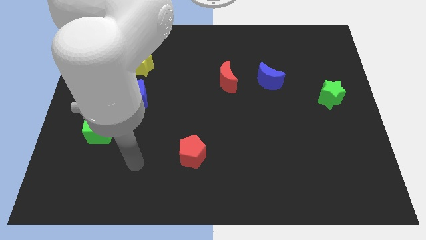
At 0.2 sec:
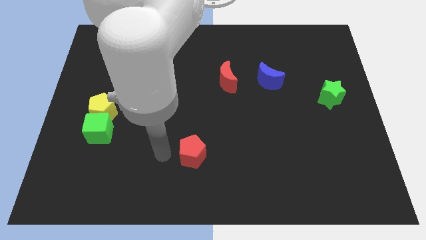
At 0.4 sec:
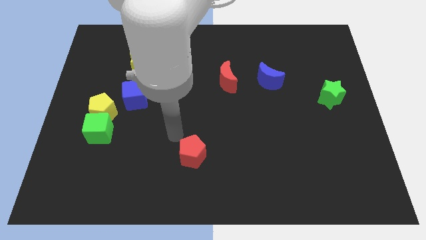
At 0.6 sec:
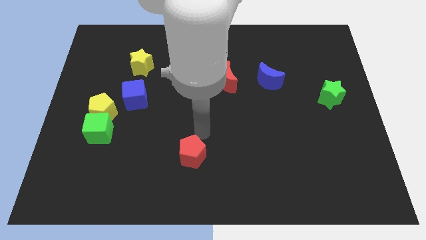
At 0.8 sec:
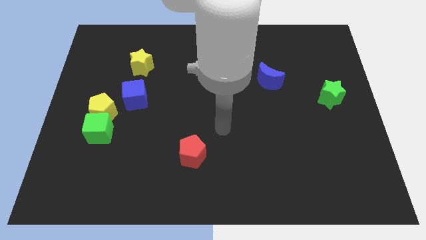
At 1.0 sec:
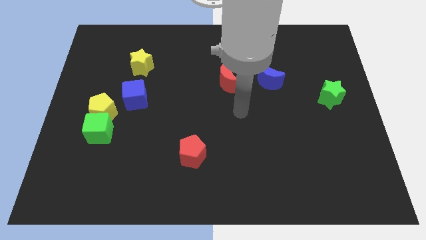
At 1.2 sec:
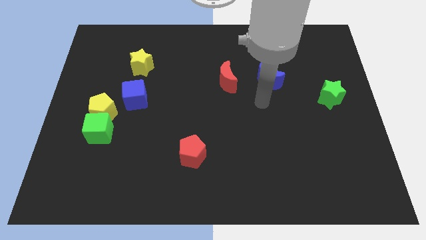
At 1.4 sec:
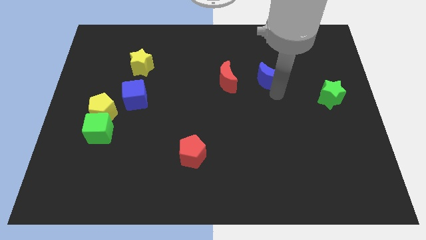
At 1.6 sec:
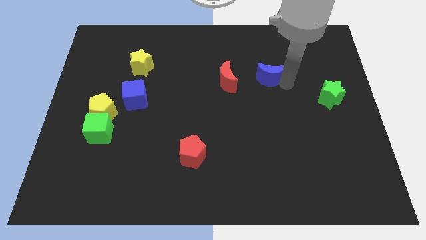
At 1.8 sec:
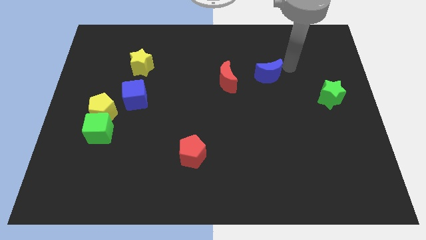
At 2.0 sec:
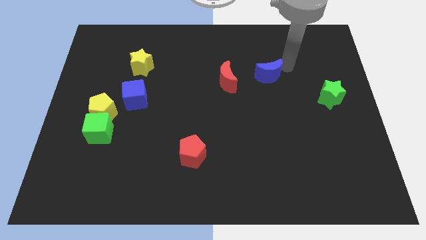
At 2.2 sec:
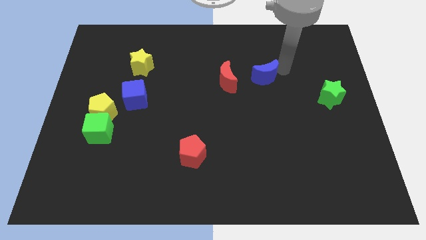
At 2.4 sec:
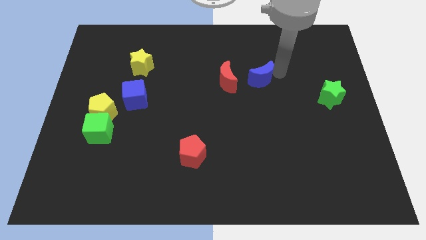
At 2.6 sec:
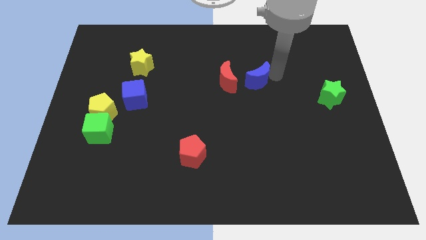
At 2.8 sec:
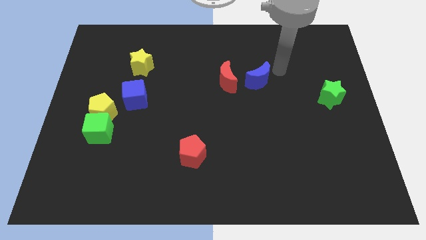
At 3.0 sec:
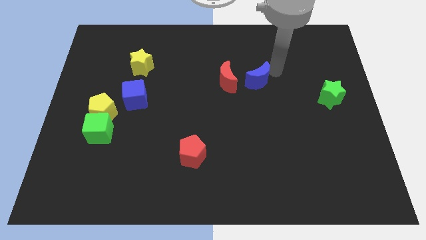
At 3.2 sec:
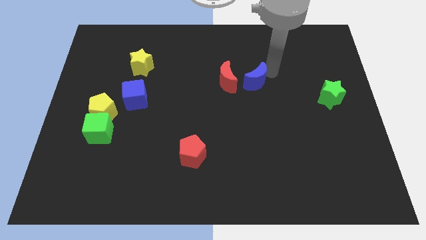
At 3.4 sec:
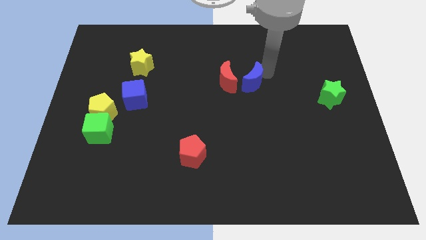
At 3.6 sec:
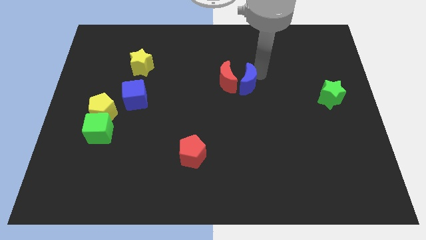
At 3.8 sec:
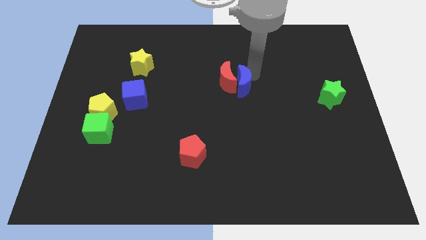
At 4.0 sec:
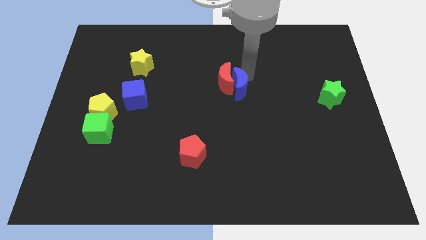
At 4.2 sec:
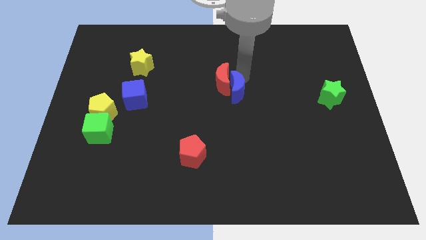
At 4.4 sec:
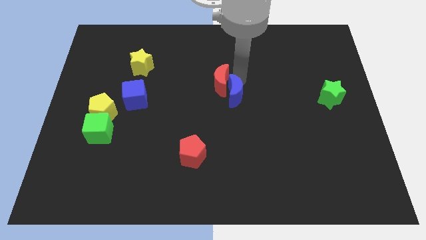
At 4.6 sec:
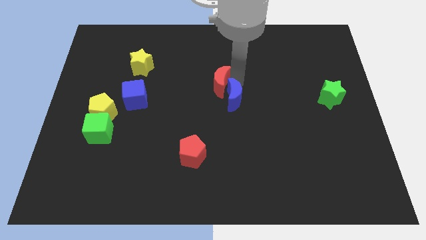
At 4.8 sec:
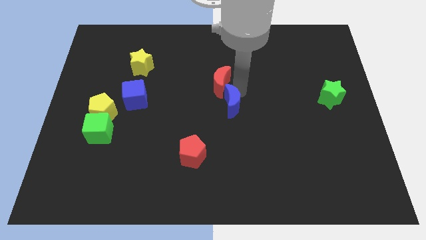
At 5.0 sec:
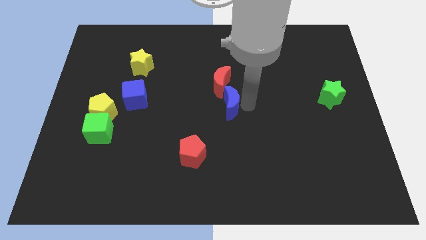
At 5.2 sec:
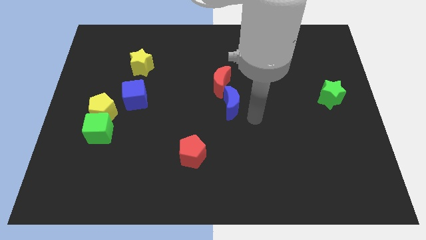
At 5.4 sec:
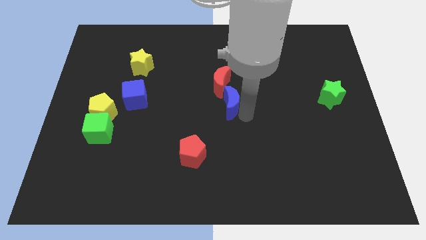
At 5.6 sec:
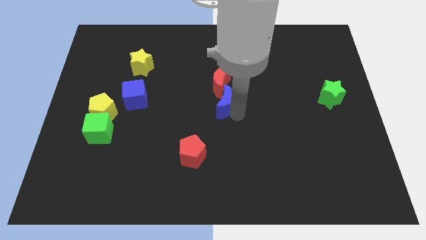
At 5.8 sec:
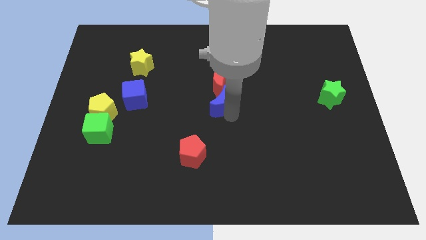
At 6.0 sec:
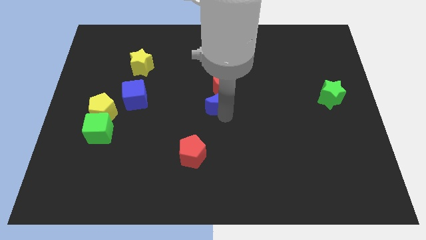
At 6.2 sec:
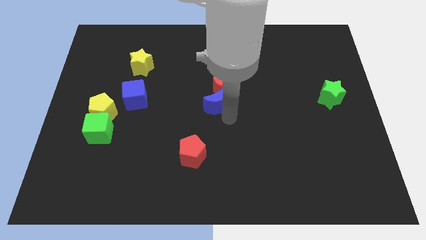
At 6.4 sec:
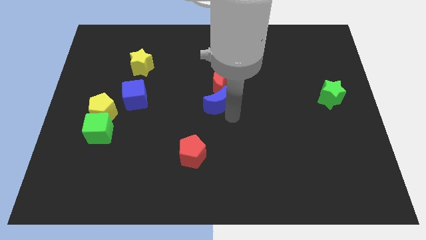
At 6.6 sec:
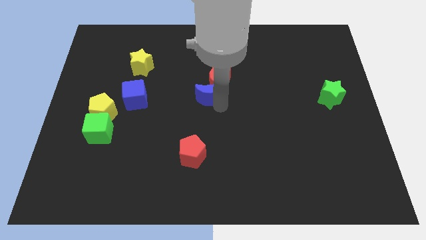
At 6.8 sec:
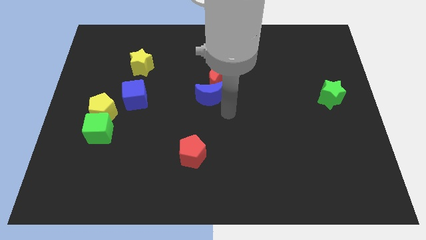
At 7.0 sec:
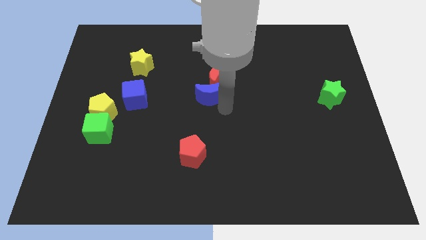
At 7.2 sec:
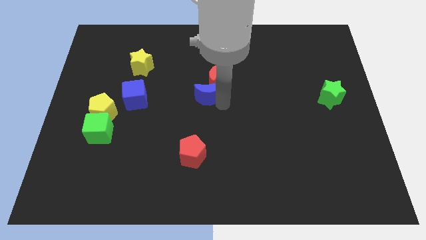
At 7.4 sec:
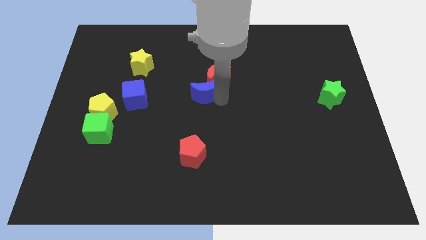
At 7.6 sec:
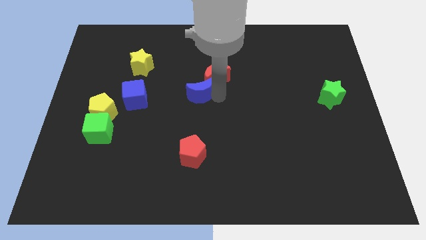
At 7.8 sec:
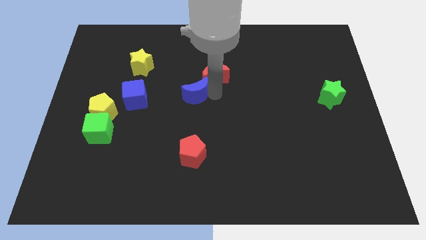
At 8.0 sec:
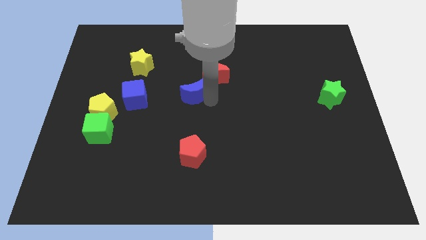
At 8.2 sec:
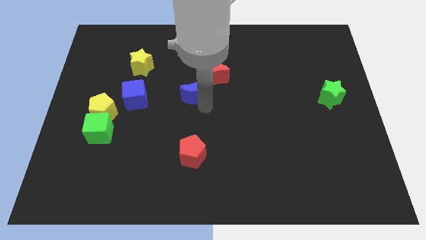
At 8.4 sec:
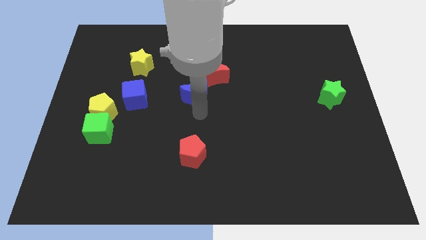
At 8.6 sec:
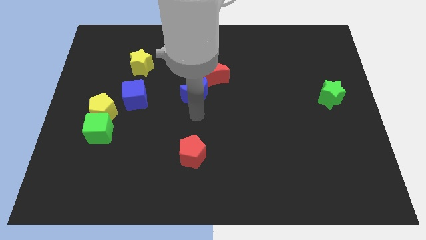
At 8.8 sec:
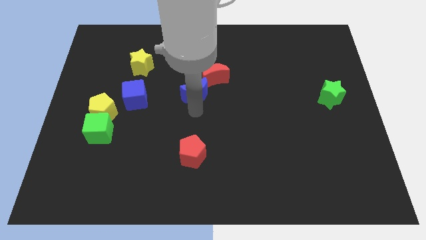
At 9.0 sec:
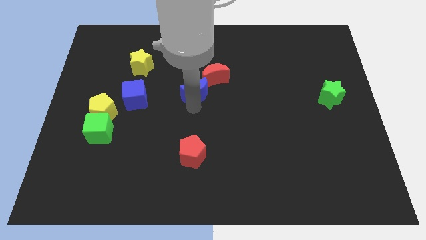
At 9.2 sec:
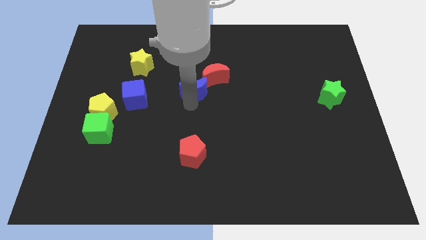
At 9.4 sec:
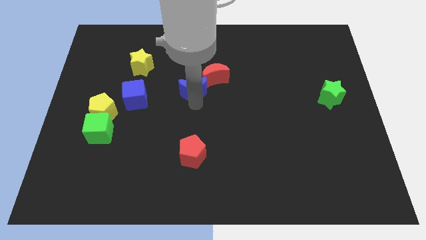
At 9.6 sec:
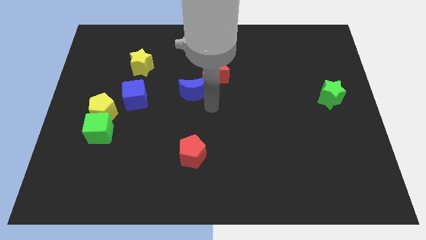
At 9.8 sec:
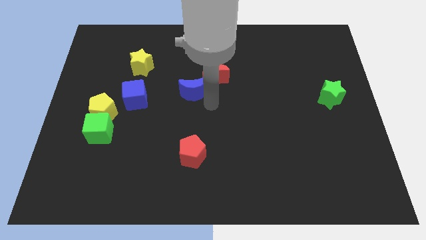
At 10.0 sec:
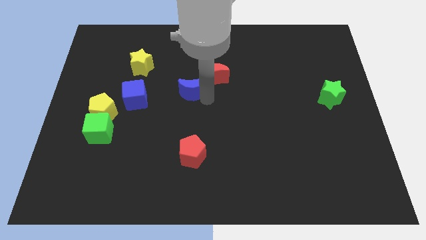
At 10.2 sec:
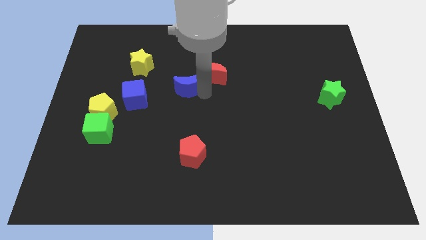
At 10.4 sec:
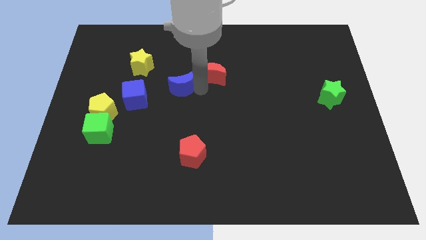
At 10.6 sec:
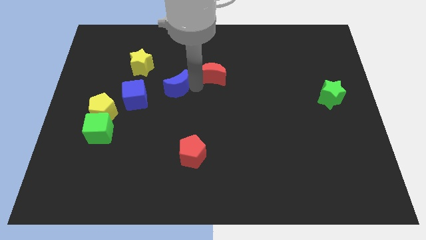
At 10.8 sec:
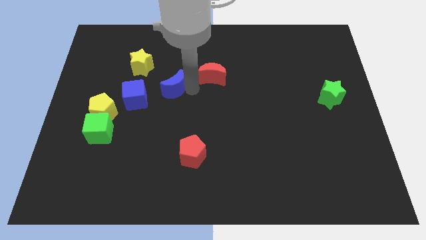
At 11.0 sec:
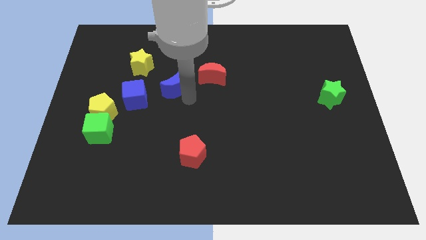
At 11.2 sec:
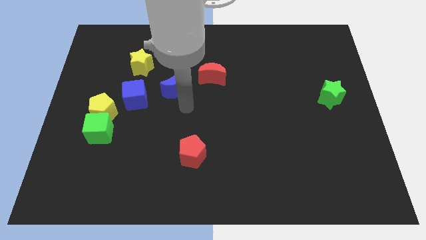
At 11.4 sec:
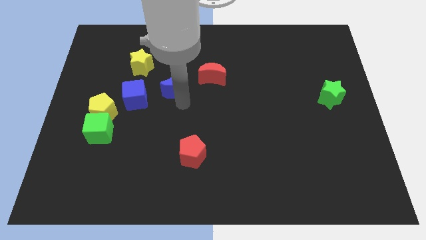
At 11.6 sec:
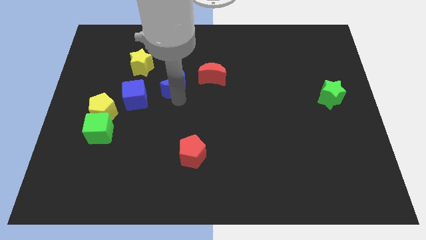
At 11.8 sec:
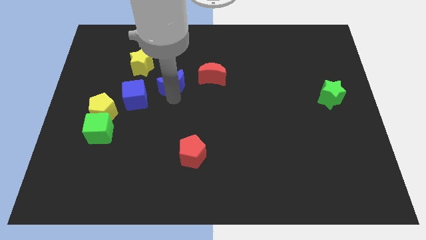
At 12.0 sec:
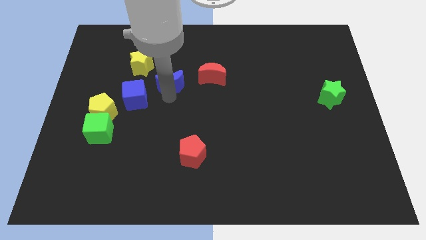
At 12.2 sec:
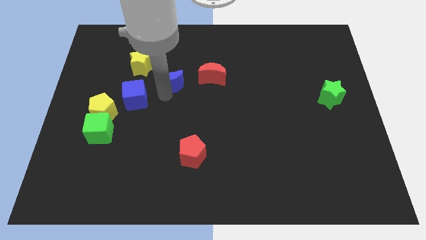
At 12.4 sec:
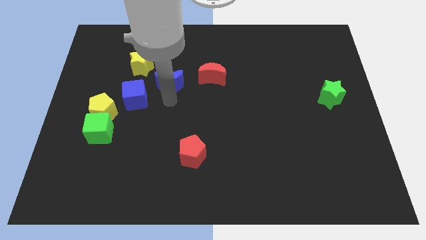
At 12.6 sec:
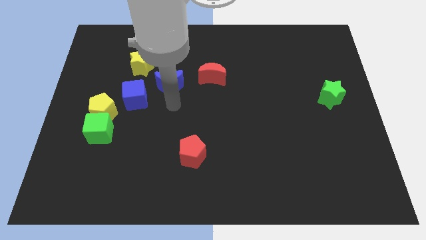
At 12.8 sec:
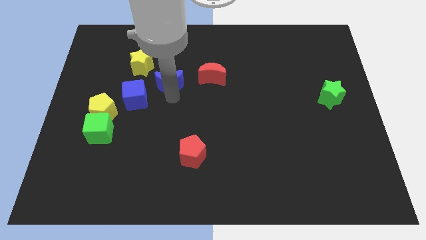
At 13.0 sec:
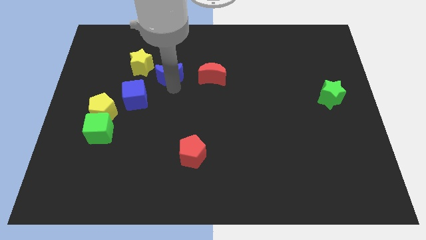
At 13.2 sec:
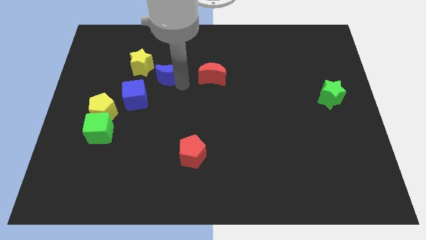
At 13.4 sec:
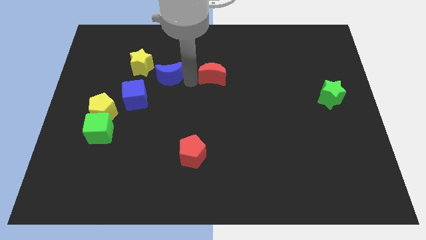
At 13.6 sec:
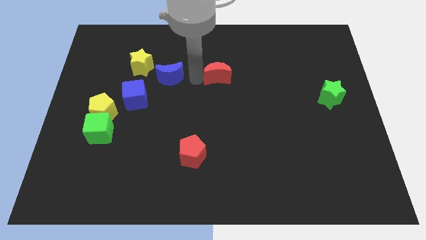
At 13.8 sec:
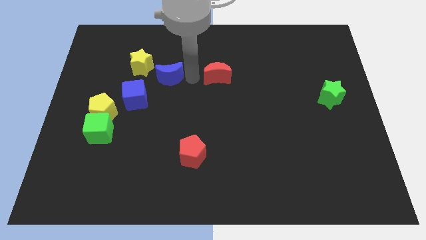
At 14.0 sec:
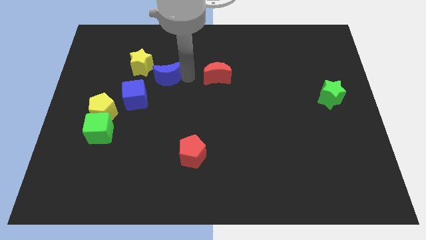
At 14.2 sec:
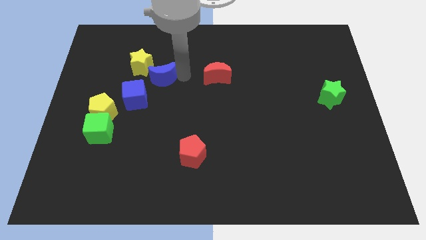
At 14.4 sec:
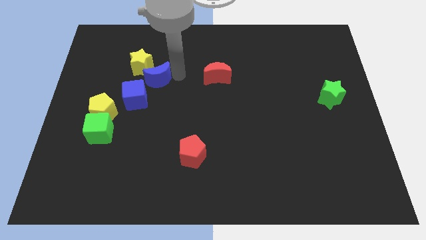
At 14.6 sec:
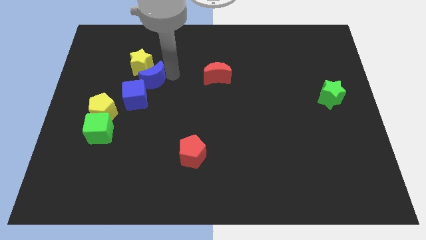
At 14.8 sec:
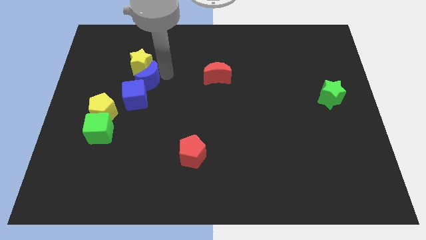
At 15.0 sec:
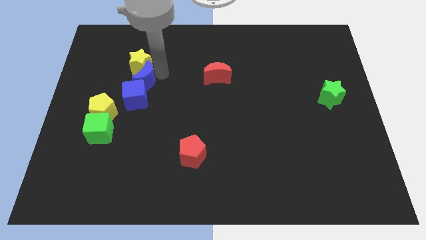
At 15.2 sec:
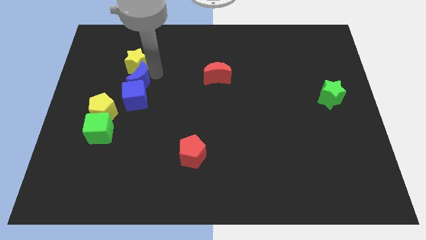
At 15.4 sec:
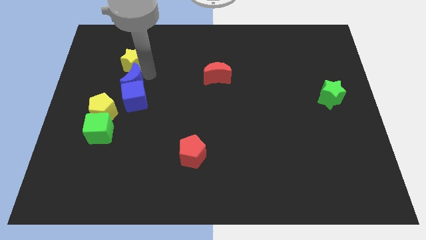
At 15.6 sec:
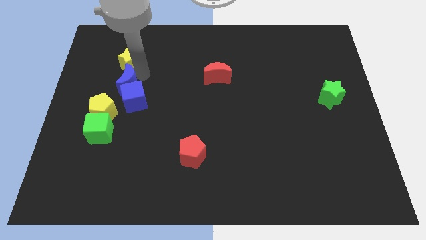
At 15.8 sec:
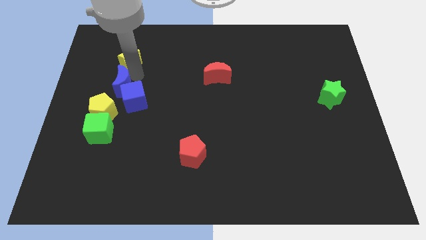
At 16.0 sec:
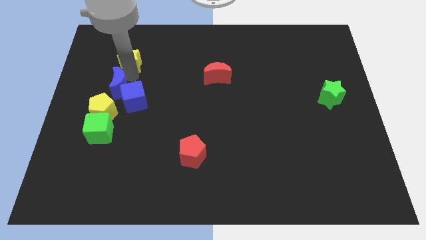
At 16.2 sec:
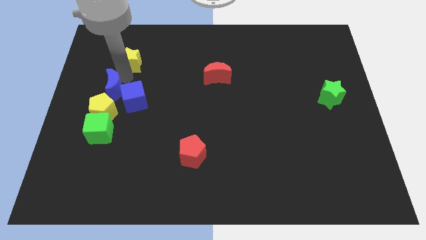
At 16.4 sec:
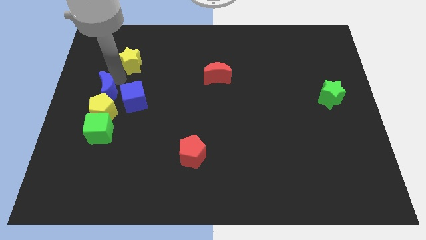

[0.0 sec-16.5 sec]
push the blue moon to the left side of the board
